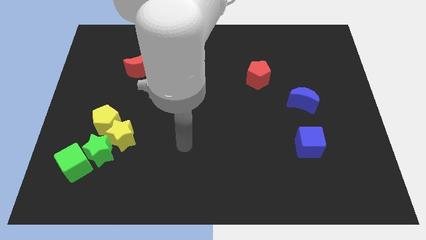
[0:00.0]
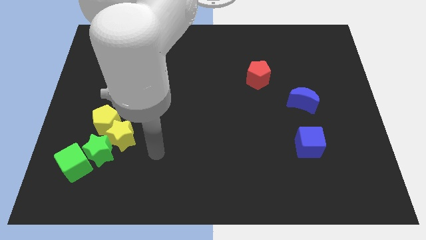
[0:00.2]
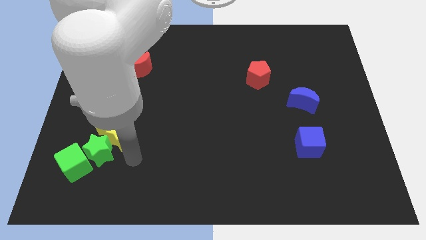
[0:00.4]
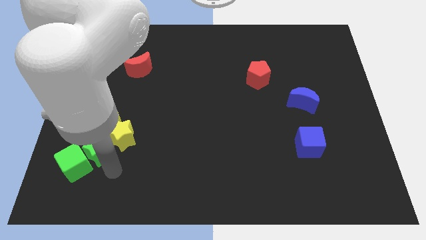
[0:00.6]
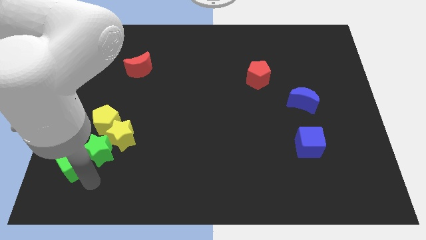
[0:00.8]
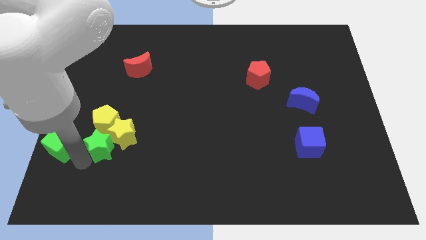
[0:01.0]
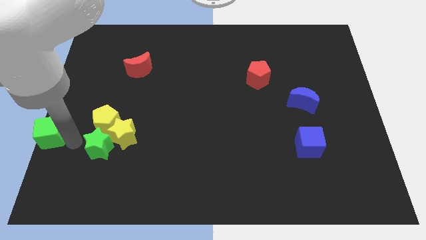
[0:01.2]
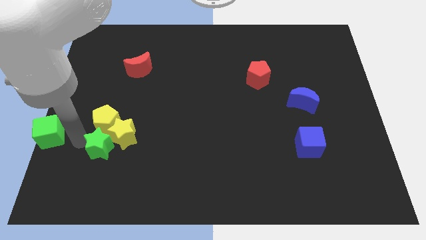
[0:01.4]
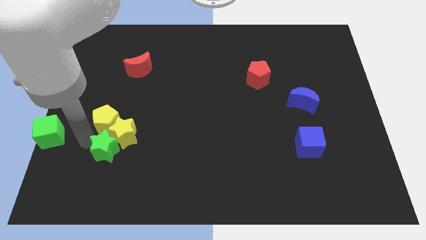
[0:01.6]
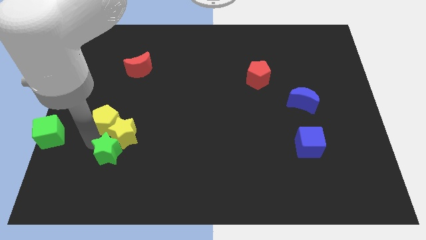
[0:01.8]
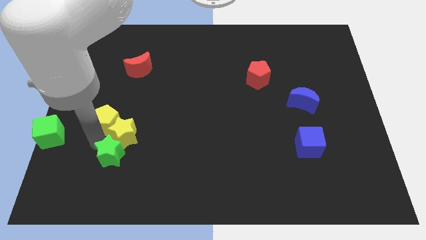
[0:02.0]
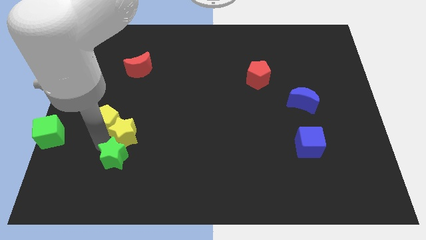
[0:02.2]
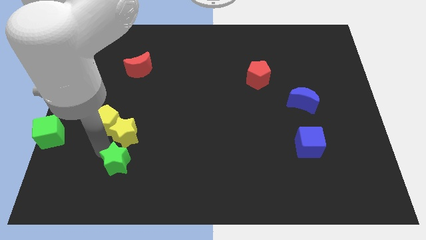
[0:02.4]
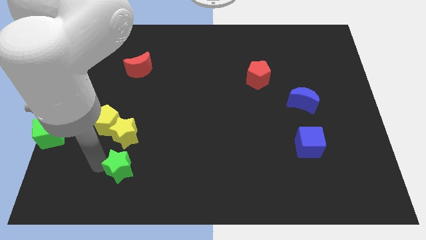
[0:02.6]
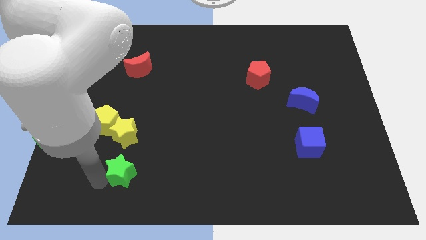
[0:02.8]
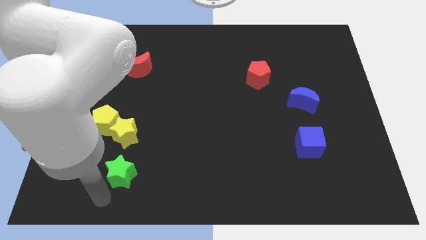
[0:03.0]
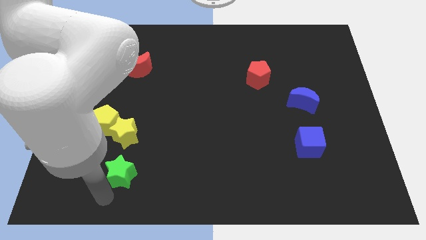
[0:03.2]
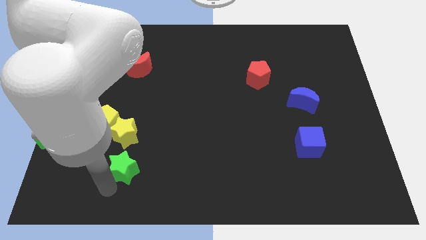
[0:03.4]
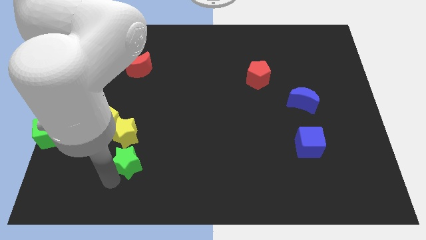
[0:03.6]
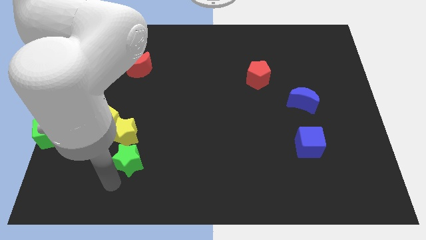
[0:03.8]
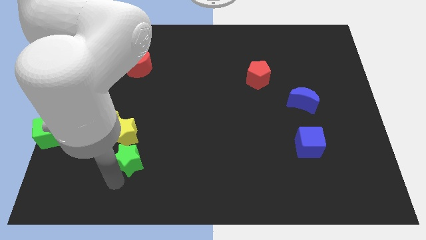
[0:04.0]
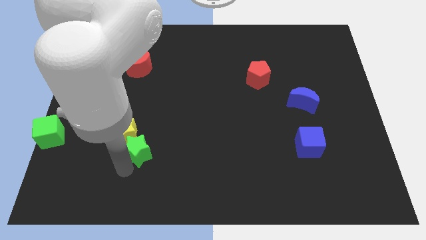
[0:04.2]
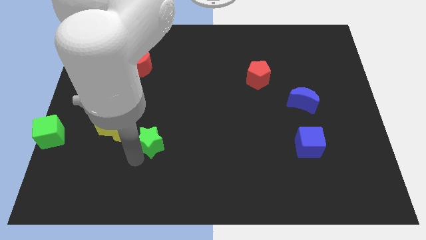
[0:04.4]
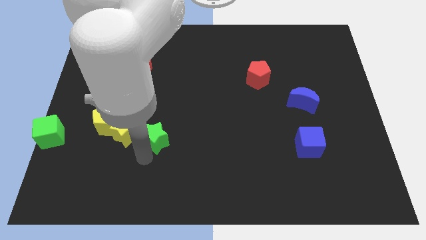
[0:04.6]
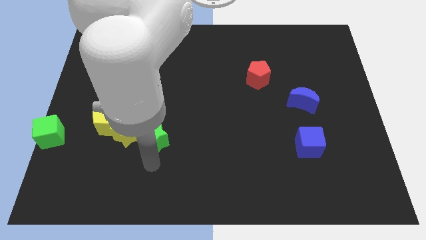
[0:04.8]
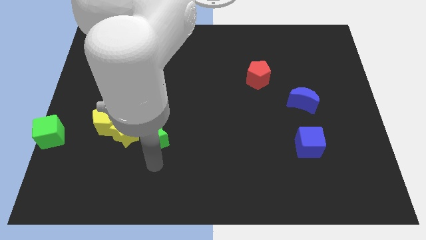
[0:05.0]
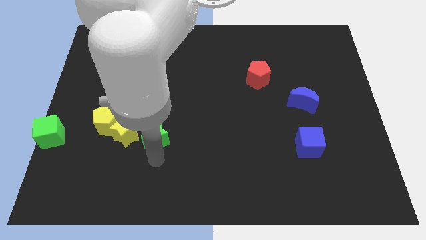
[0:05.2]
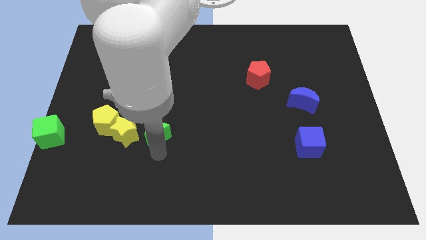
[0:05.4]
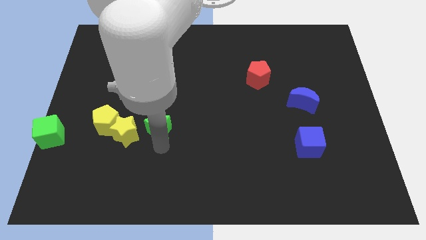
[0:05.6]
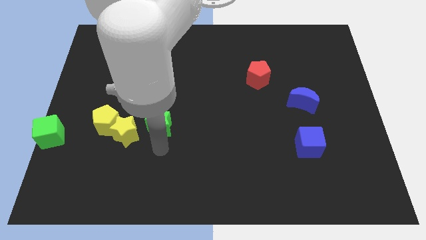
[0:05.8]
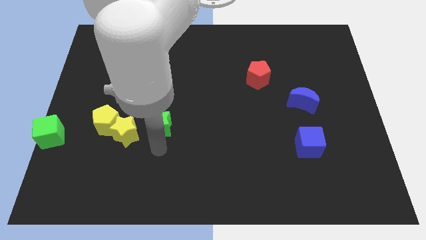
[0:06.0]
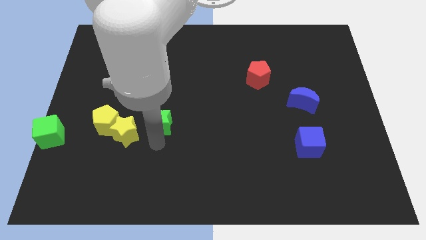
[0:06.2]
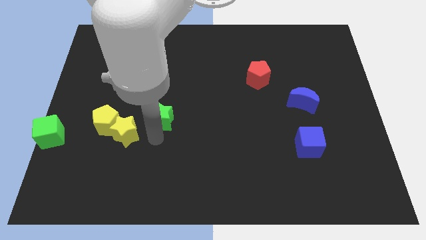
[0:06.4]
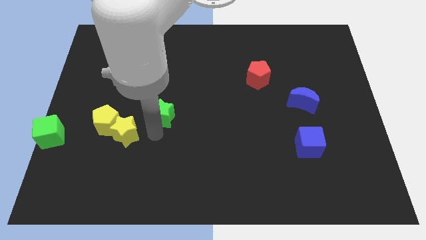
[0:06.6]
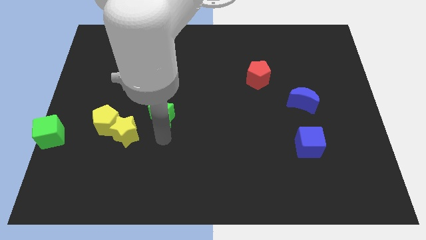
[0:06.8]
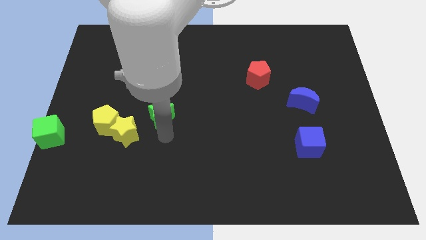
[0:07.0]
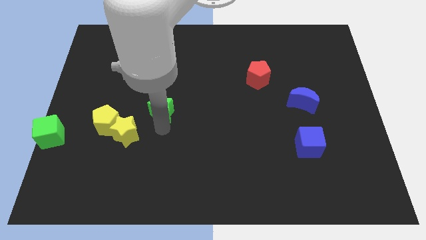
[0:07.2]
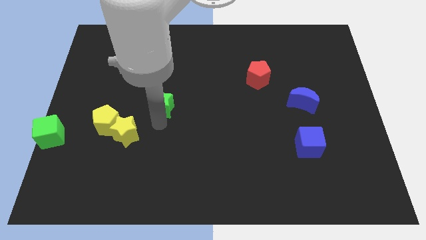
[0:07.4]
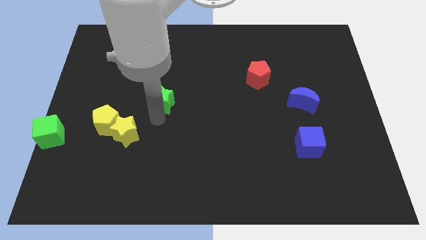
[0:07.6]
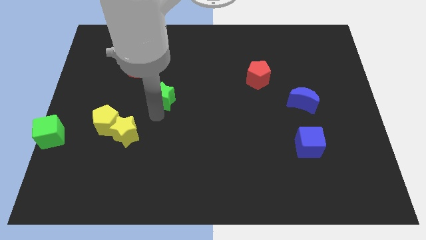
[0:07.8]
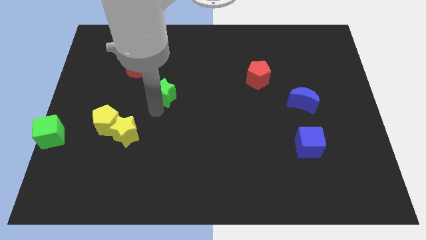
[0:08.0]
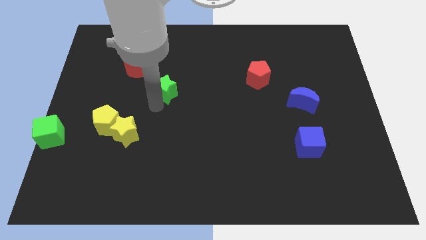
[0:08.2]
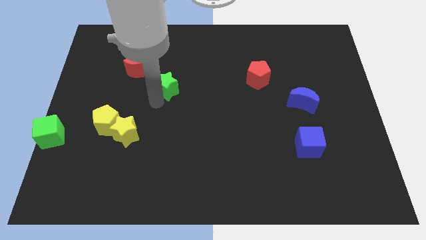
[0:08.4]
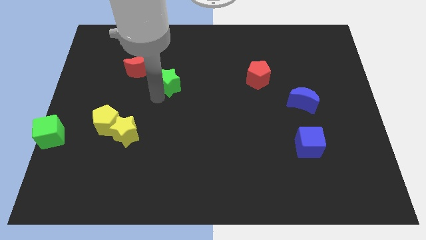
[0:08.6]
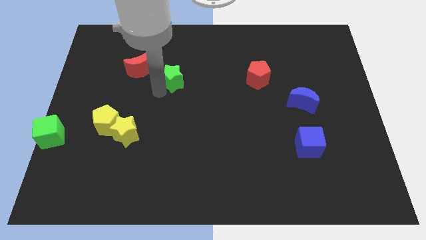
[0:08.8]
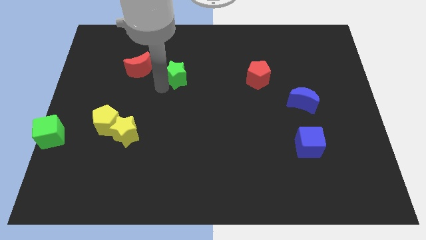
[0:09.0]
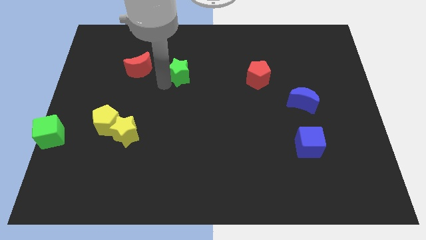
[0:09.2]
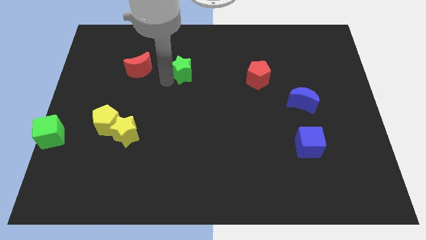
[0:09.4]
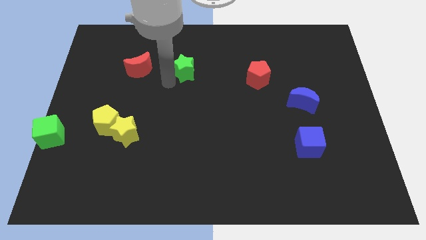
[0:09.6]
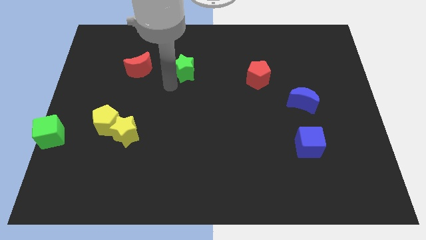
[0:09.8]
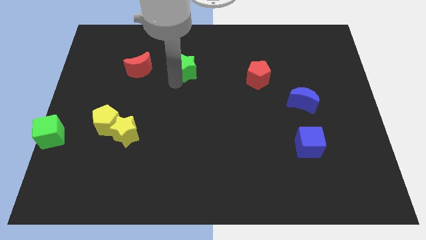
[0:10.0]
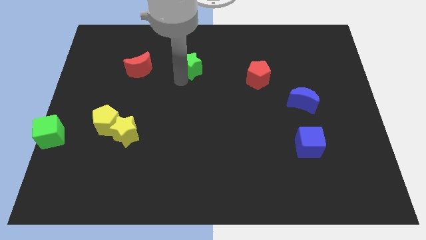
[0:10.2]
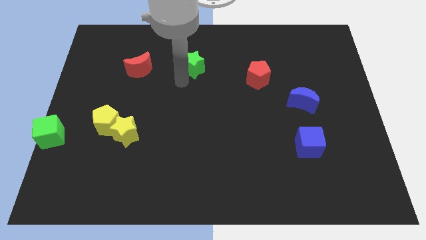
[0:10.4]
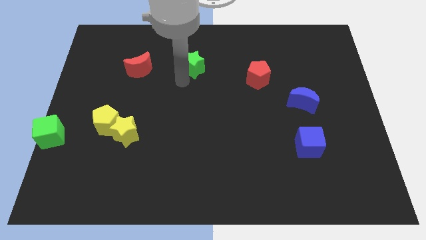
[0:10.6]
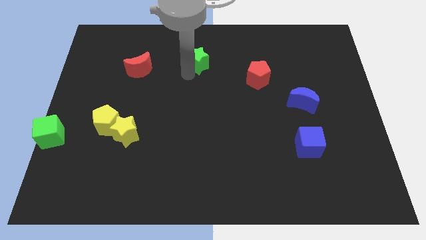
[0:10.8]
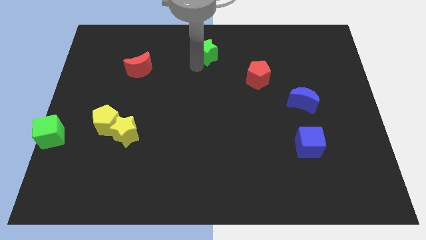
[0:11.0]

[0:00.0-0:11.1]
move the green star to the top side
